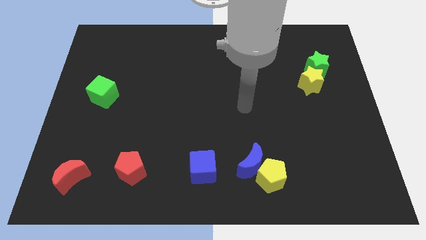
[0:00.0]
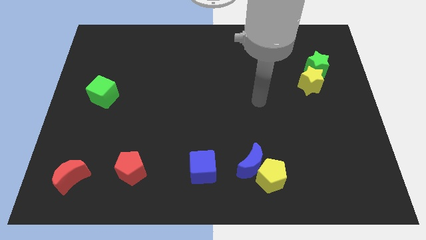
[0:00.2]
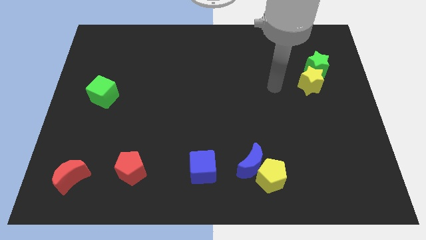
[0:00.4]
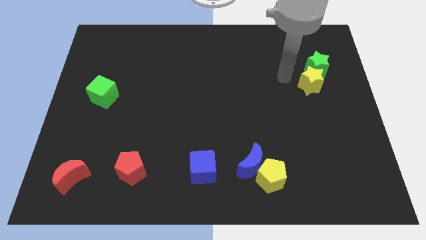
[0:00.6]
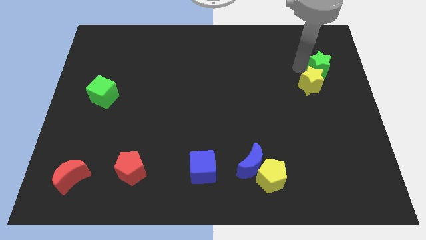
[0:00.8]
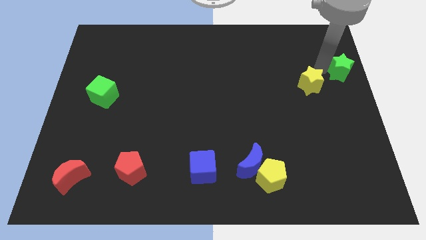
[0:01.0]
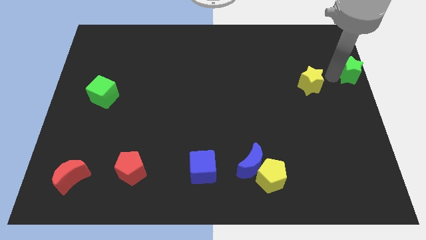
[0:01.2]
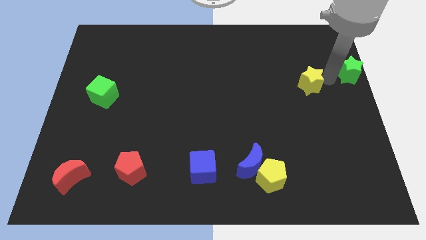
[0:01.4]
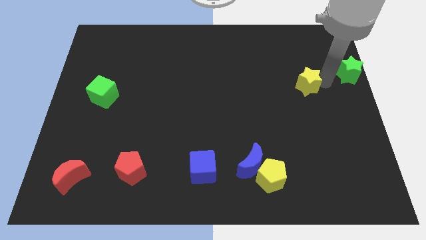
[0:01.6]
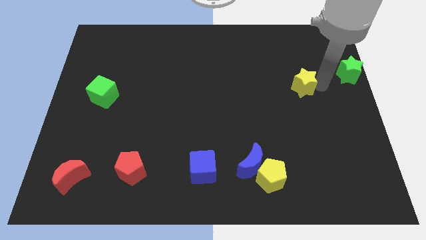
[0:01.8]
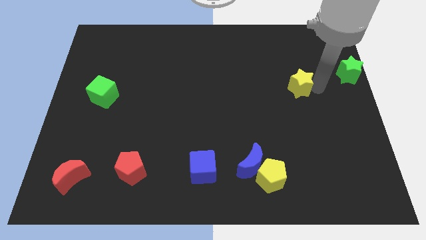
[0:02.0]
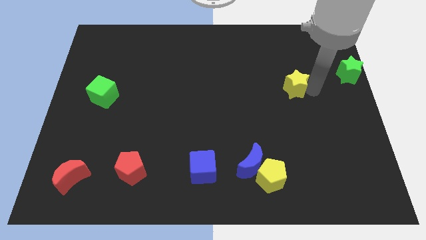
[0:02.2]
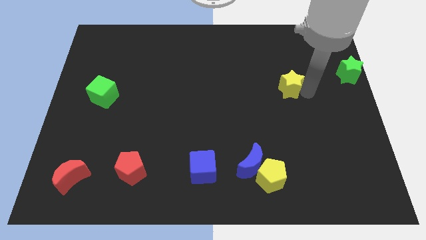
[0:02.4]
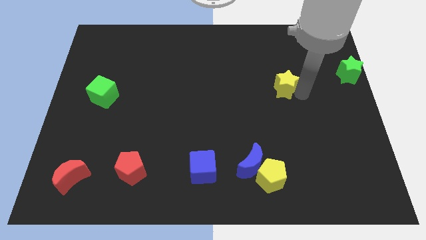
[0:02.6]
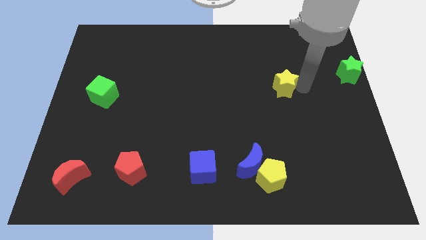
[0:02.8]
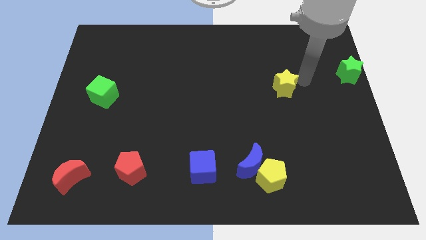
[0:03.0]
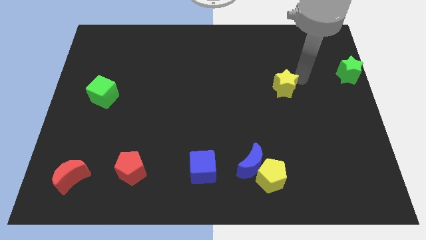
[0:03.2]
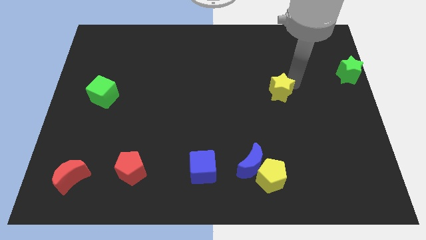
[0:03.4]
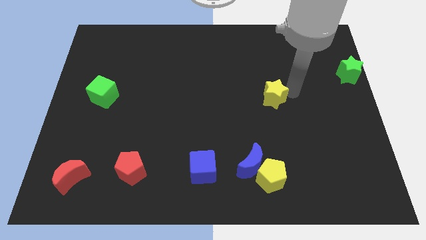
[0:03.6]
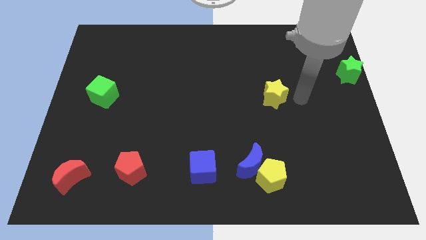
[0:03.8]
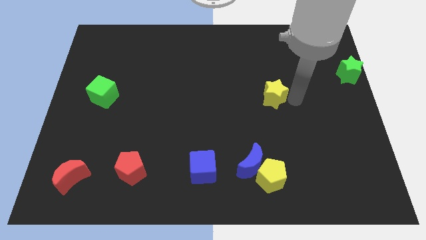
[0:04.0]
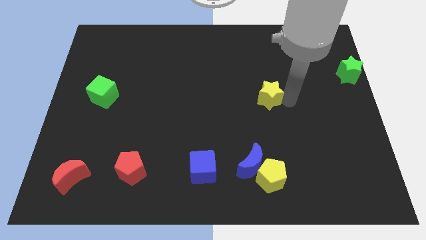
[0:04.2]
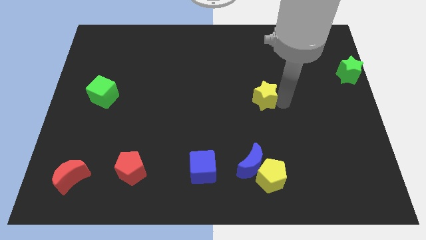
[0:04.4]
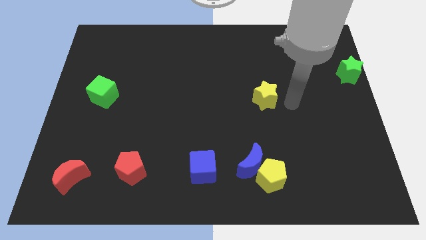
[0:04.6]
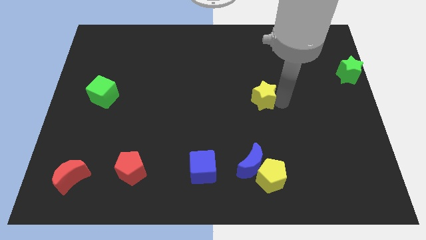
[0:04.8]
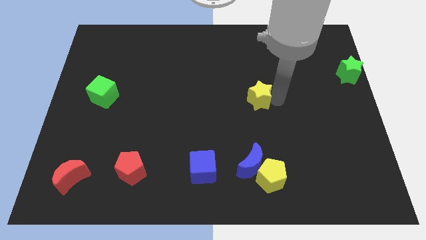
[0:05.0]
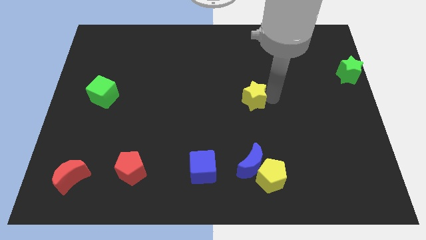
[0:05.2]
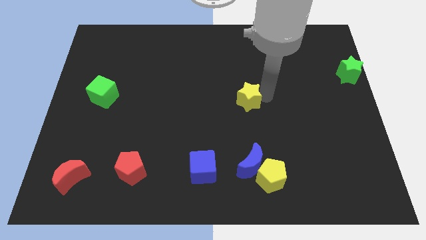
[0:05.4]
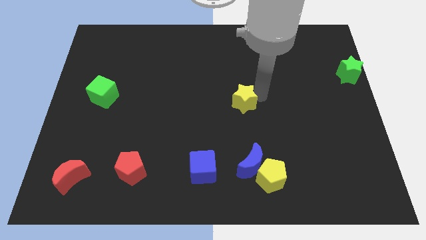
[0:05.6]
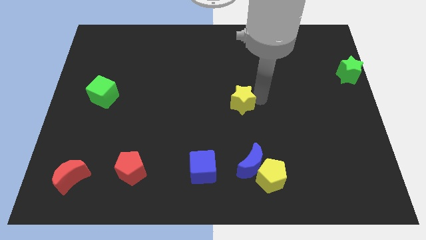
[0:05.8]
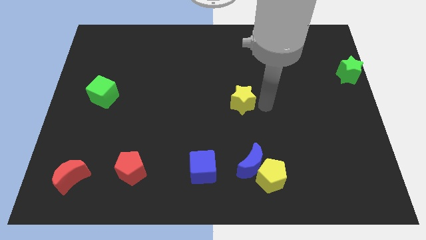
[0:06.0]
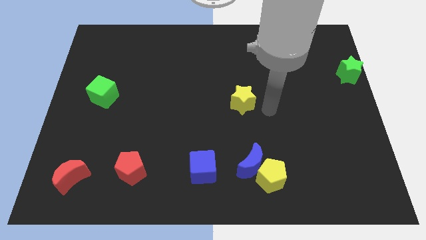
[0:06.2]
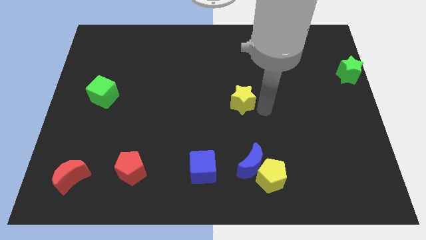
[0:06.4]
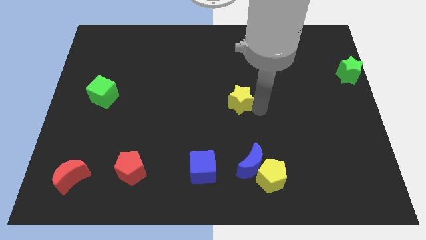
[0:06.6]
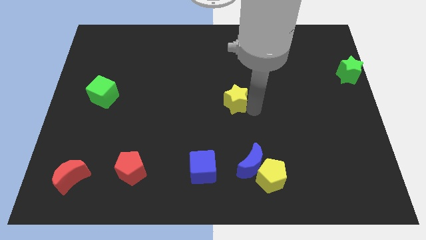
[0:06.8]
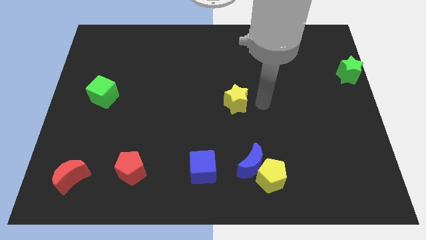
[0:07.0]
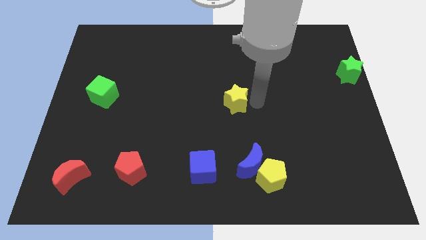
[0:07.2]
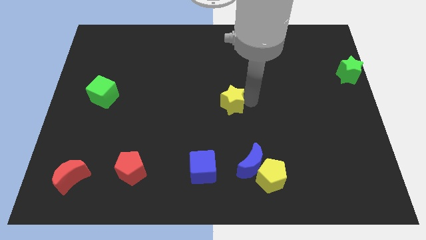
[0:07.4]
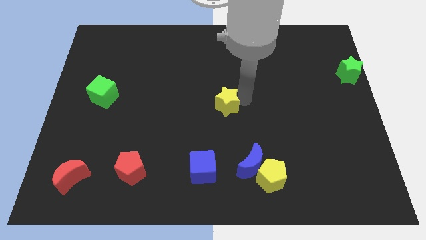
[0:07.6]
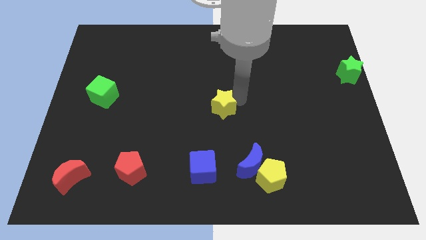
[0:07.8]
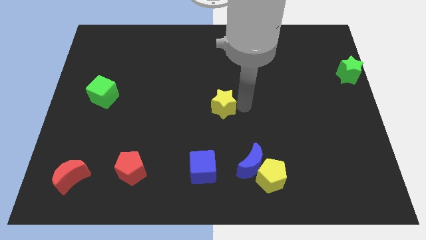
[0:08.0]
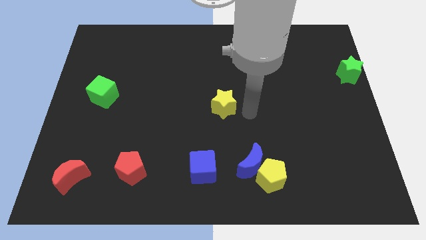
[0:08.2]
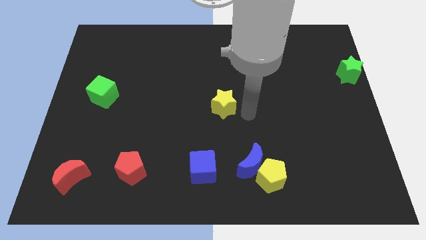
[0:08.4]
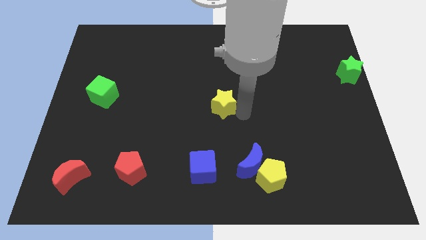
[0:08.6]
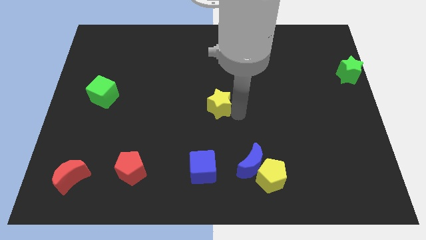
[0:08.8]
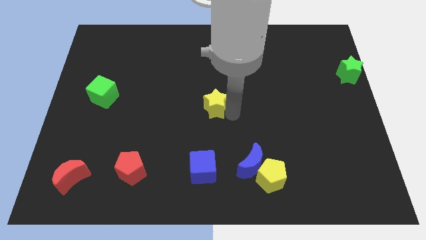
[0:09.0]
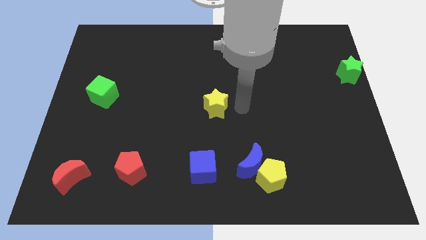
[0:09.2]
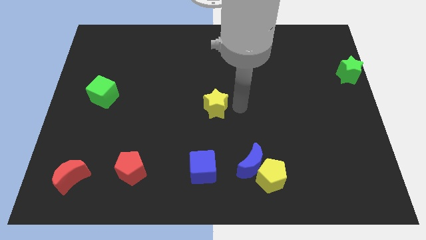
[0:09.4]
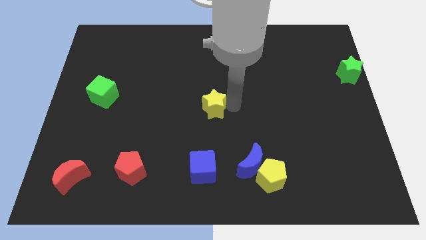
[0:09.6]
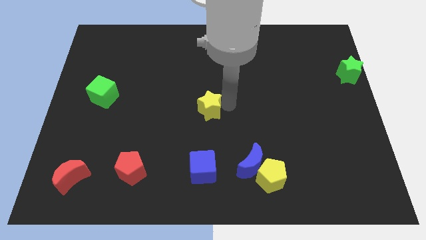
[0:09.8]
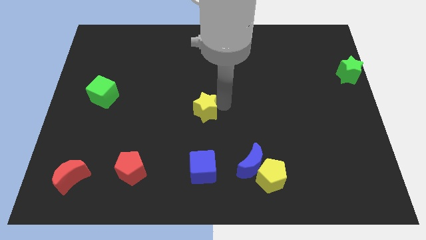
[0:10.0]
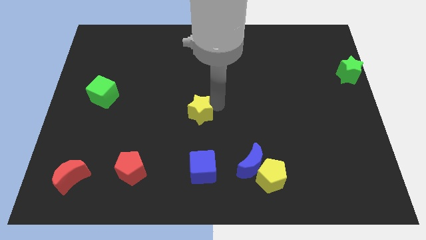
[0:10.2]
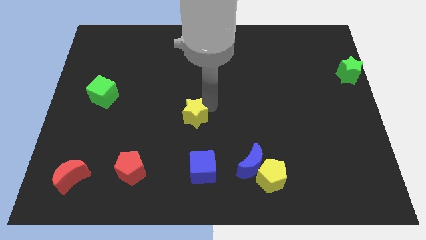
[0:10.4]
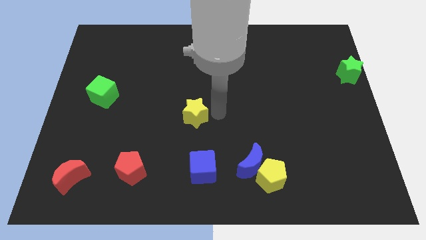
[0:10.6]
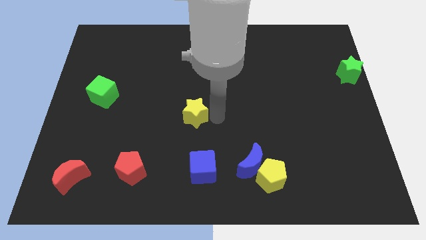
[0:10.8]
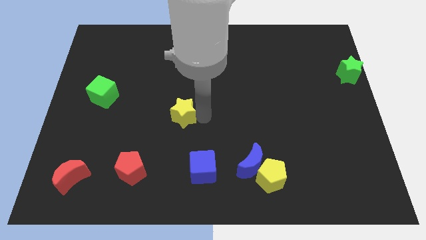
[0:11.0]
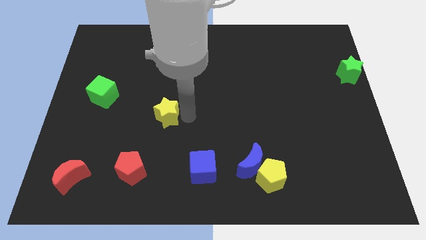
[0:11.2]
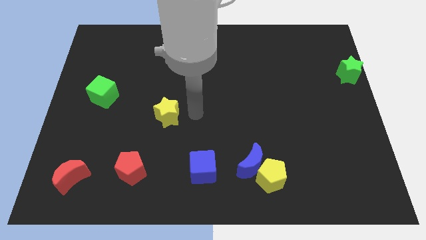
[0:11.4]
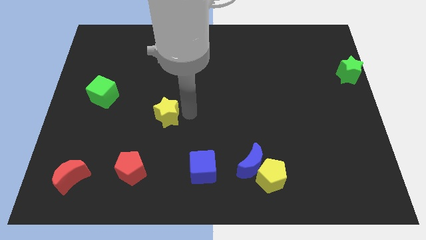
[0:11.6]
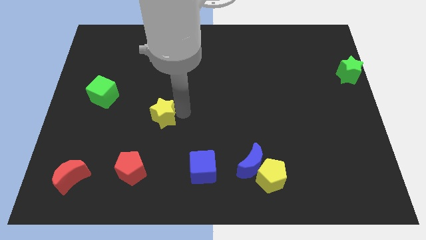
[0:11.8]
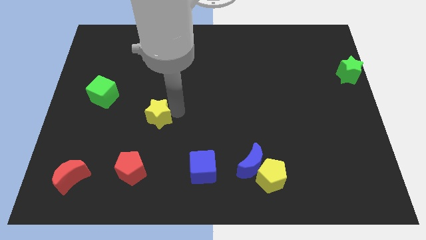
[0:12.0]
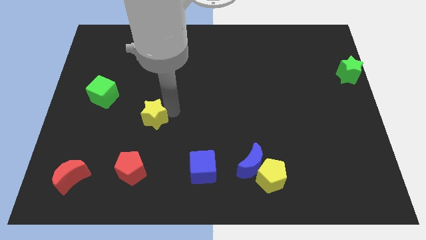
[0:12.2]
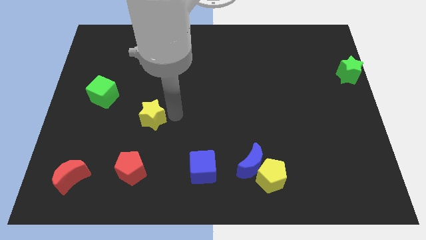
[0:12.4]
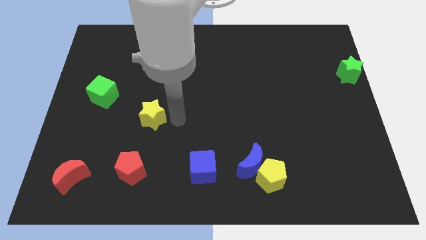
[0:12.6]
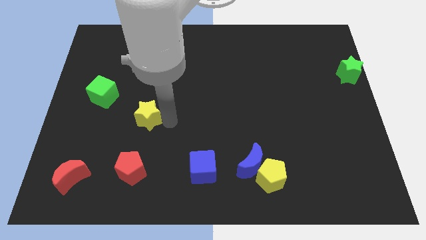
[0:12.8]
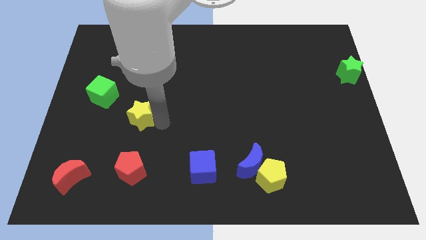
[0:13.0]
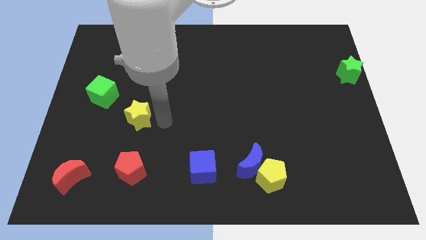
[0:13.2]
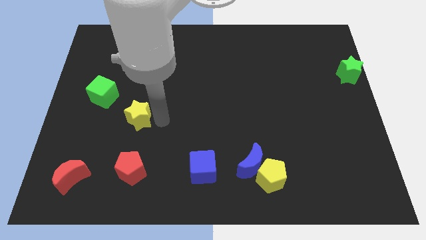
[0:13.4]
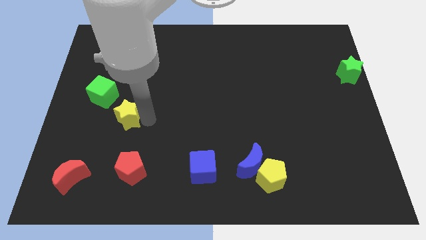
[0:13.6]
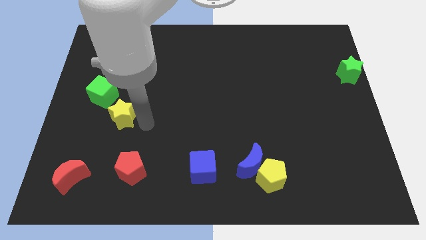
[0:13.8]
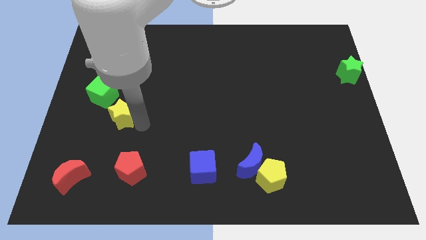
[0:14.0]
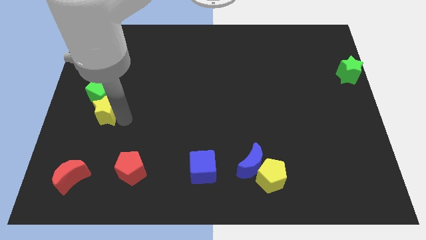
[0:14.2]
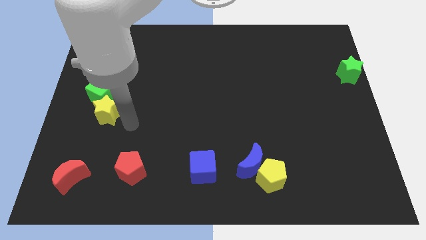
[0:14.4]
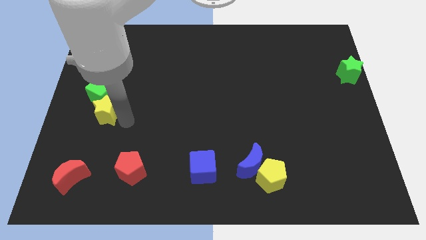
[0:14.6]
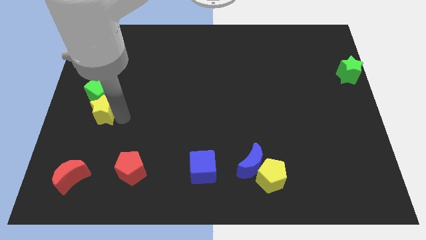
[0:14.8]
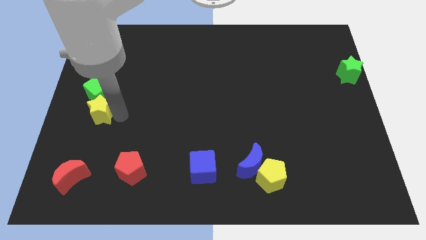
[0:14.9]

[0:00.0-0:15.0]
move the yellow star to the left side of the board
